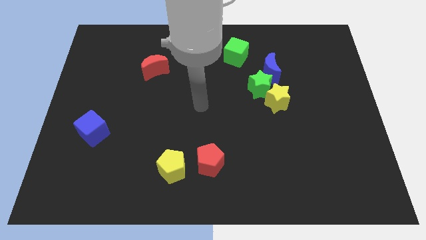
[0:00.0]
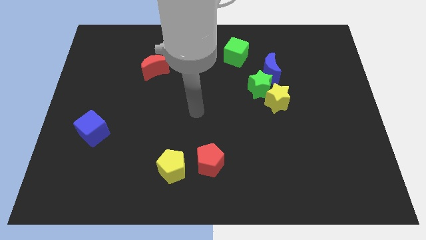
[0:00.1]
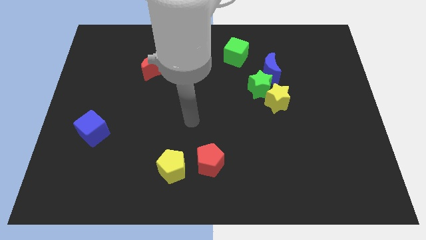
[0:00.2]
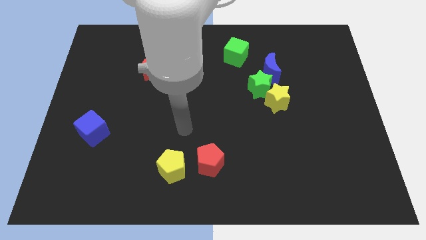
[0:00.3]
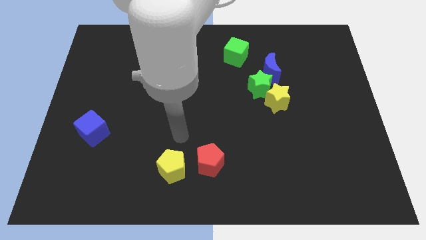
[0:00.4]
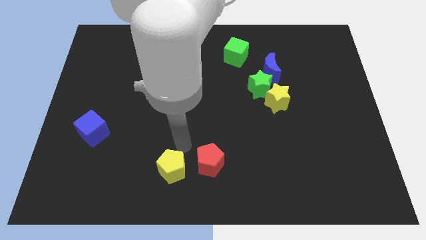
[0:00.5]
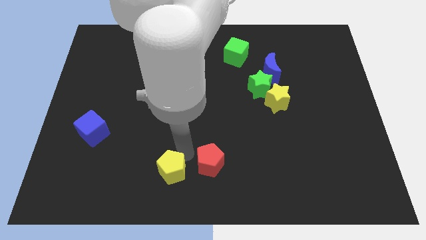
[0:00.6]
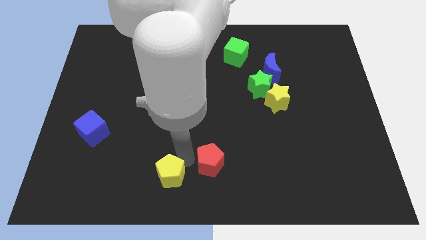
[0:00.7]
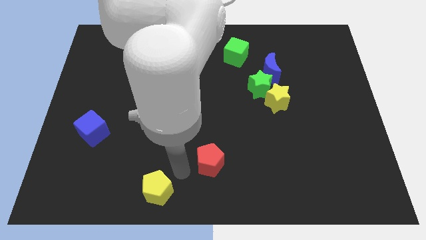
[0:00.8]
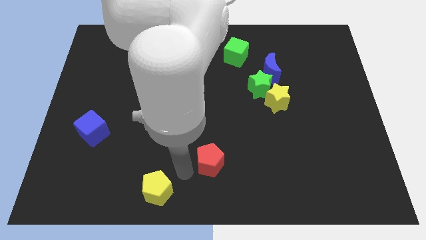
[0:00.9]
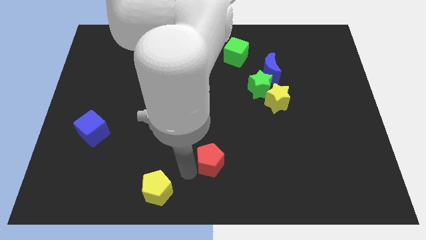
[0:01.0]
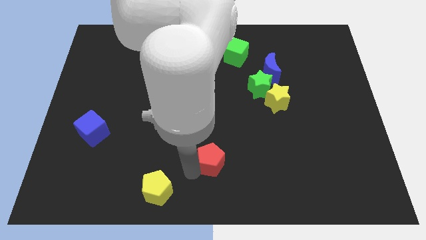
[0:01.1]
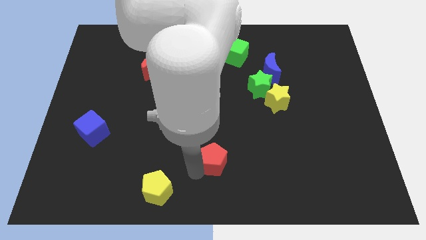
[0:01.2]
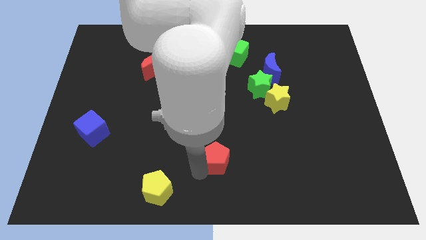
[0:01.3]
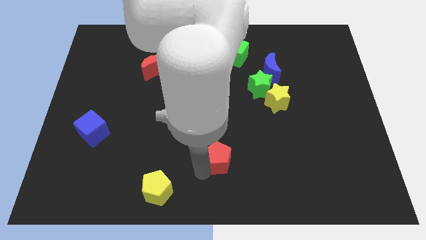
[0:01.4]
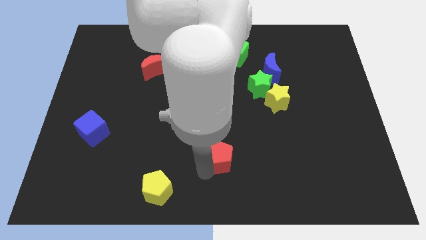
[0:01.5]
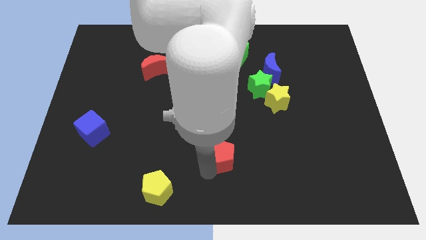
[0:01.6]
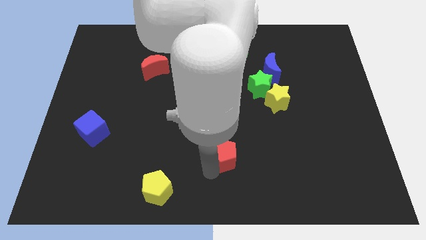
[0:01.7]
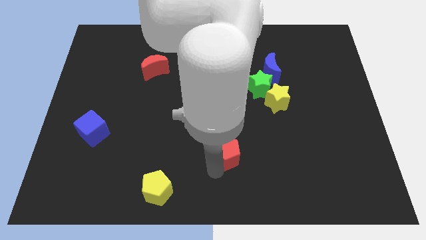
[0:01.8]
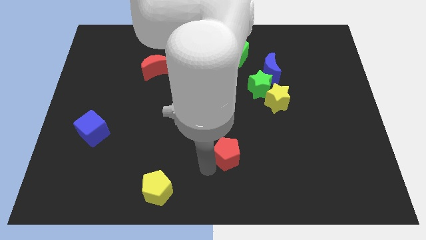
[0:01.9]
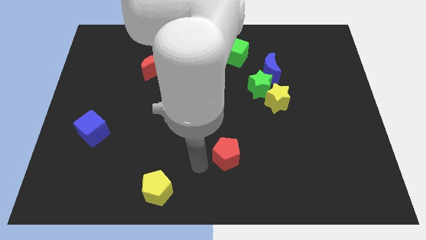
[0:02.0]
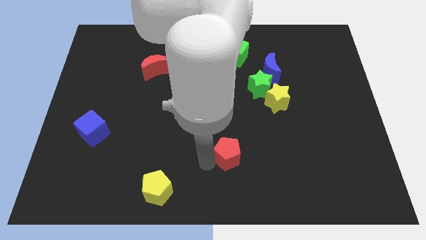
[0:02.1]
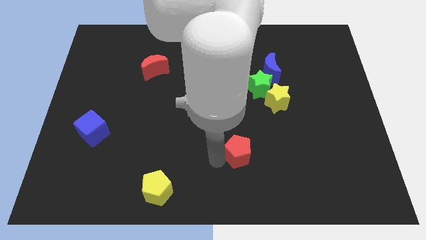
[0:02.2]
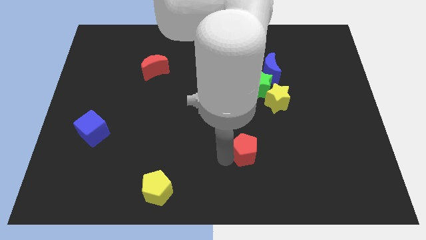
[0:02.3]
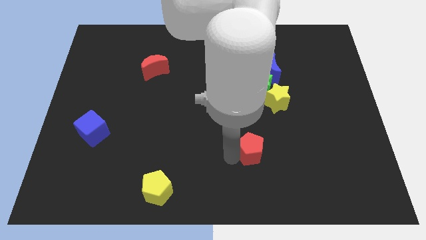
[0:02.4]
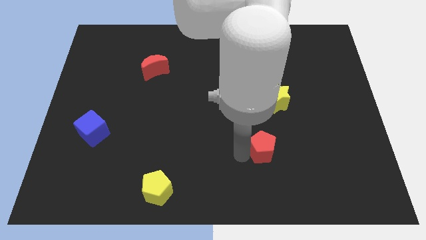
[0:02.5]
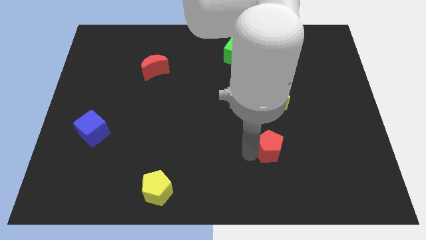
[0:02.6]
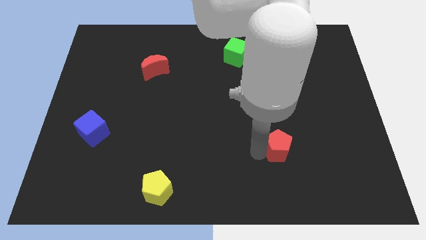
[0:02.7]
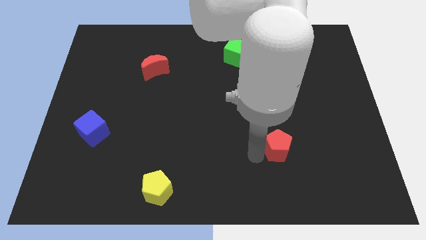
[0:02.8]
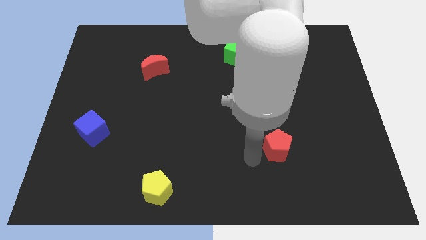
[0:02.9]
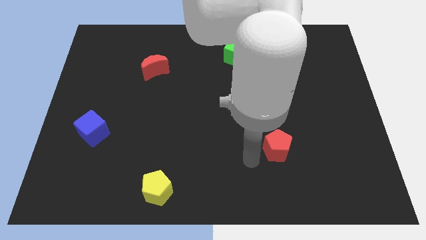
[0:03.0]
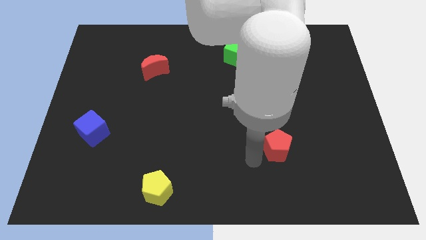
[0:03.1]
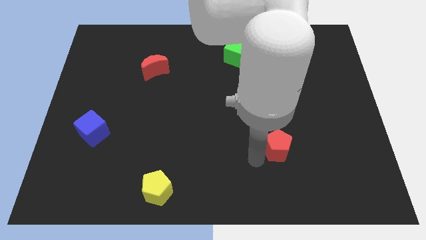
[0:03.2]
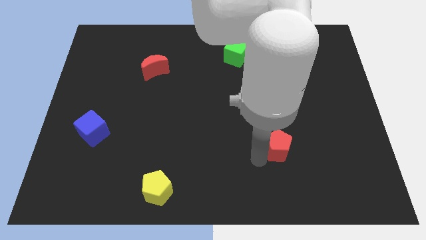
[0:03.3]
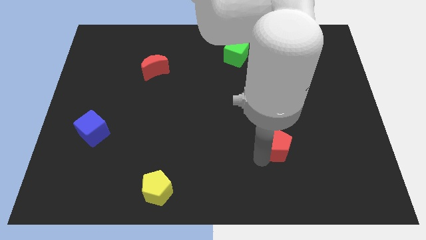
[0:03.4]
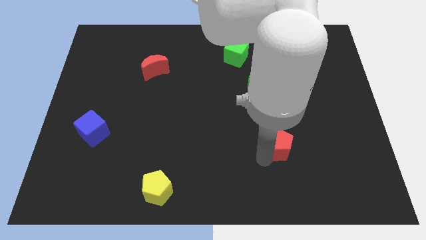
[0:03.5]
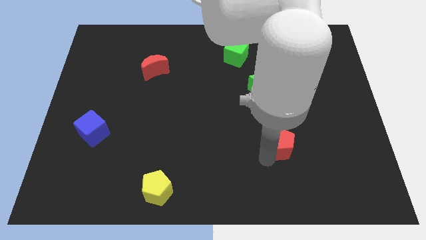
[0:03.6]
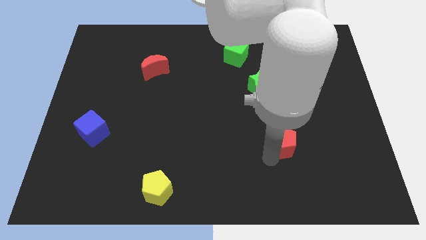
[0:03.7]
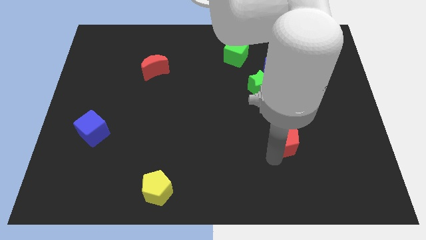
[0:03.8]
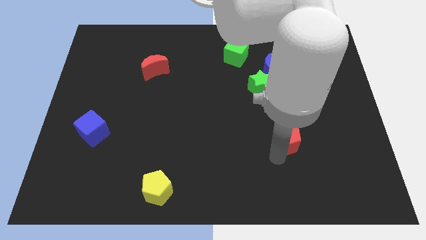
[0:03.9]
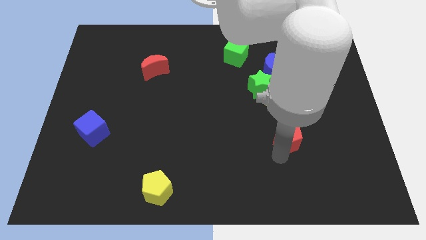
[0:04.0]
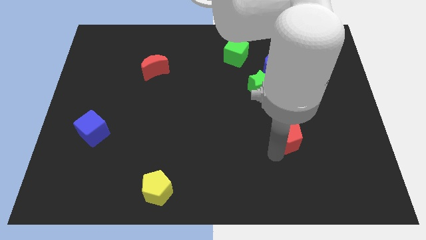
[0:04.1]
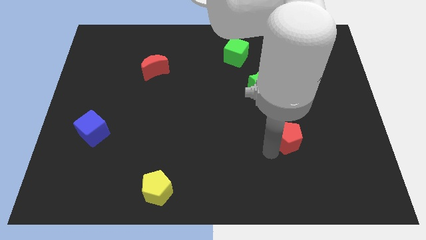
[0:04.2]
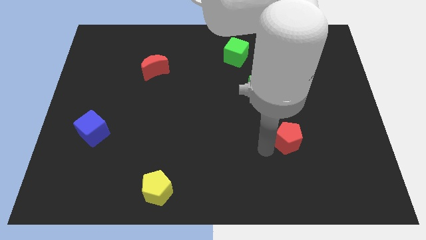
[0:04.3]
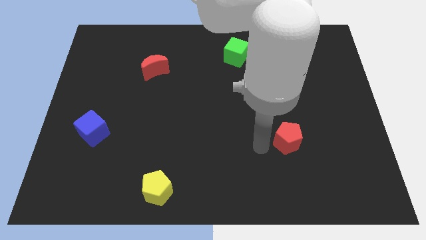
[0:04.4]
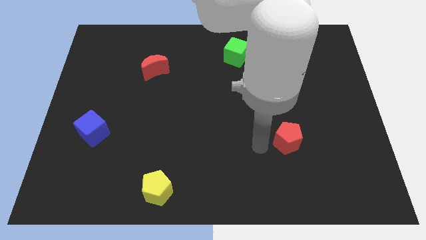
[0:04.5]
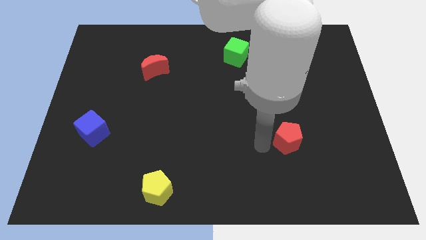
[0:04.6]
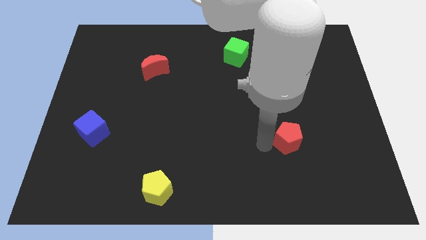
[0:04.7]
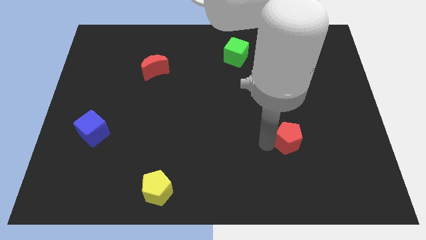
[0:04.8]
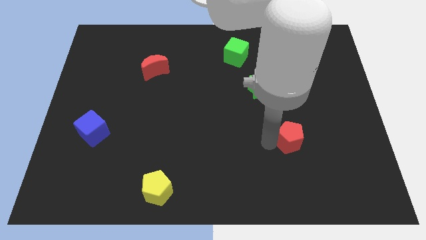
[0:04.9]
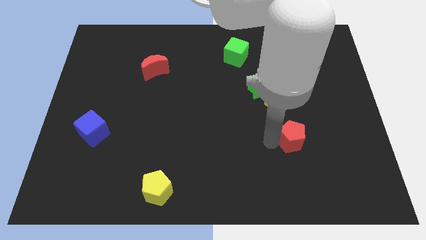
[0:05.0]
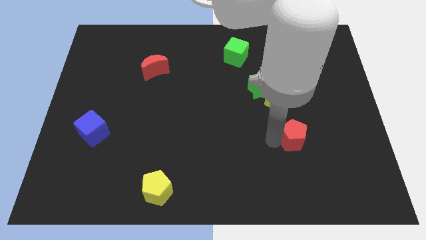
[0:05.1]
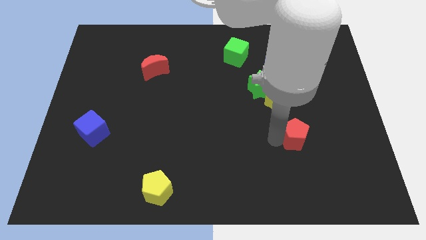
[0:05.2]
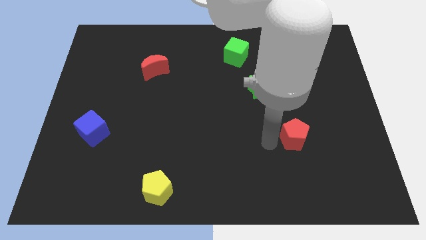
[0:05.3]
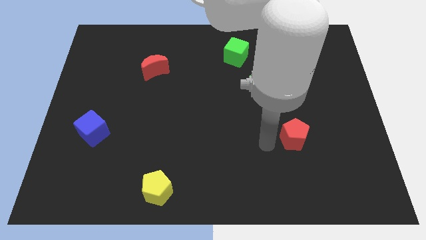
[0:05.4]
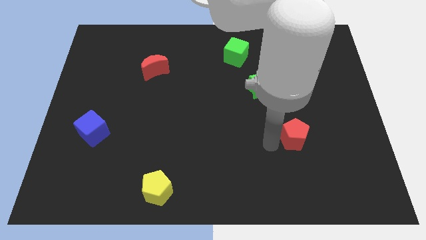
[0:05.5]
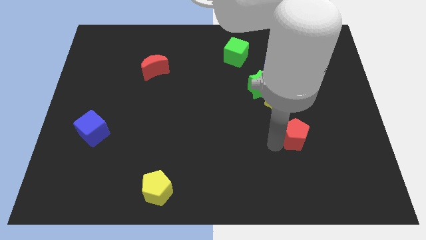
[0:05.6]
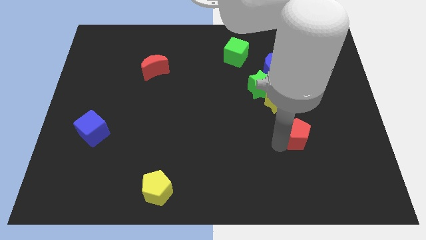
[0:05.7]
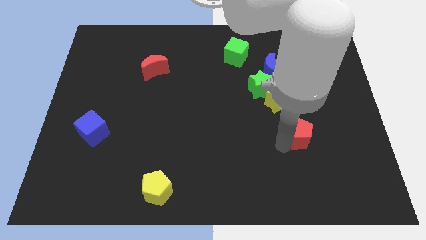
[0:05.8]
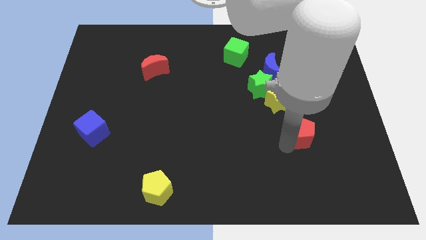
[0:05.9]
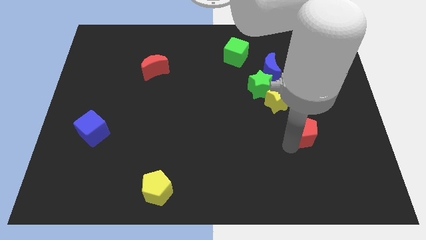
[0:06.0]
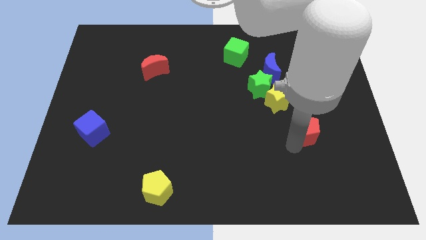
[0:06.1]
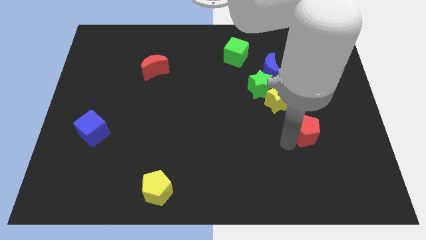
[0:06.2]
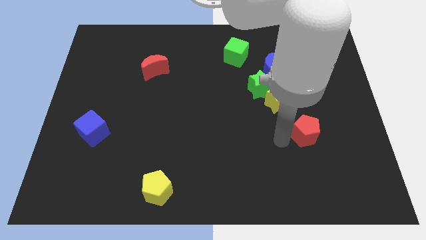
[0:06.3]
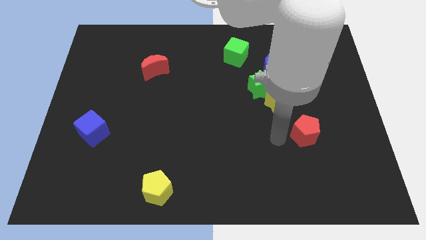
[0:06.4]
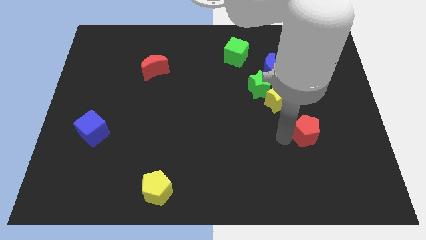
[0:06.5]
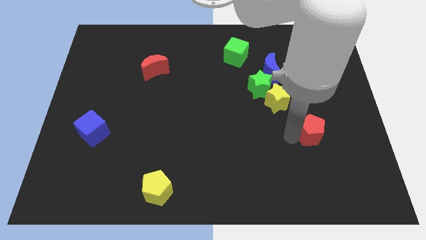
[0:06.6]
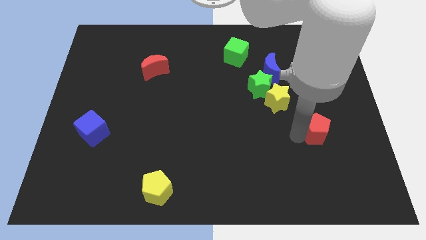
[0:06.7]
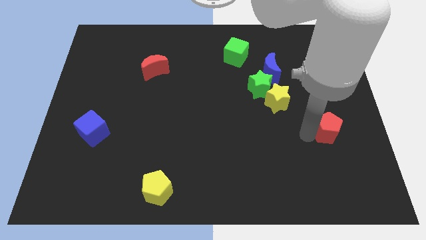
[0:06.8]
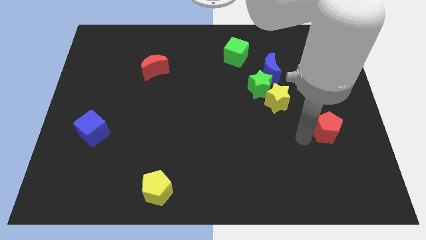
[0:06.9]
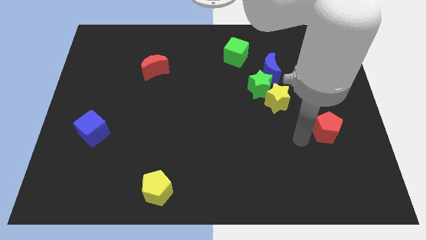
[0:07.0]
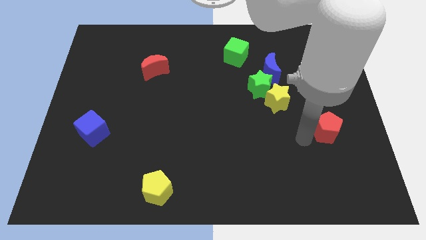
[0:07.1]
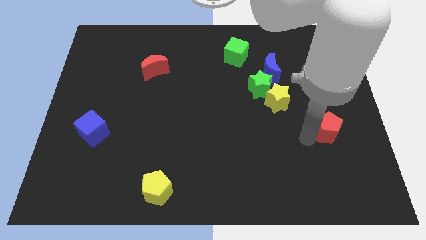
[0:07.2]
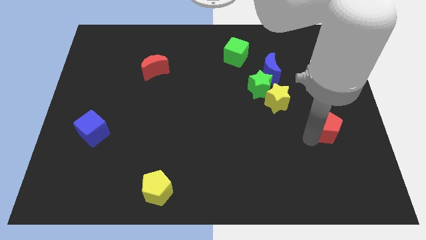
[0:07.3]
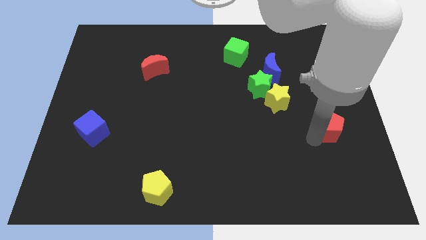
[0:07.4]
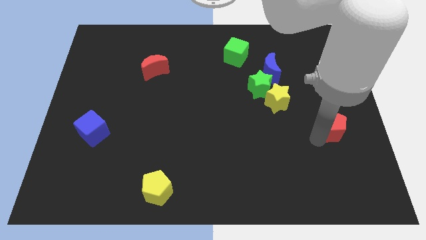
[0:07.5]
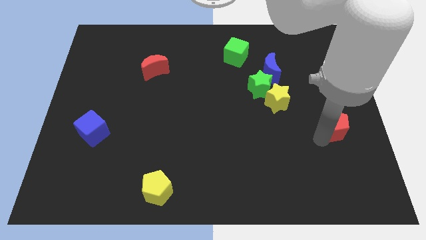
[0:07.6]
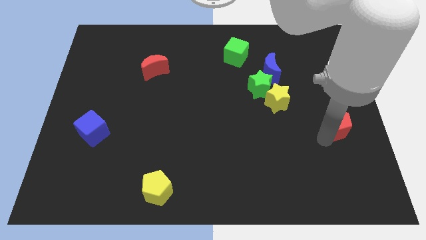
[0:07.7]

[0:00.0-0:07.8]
push the red pentagon to the center right
